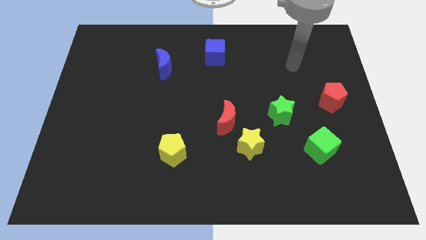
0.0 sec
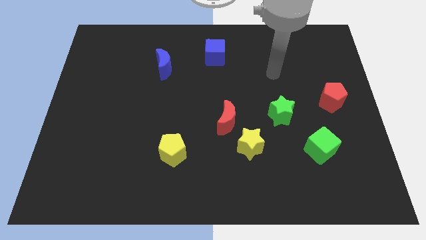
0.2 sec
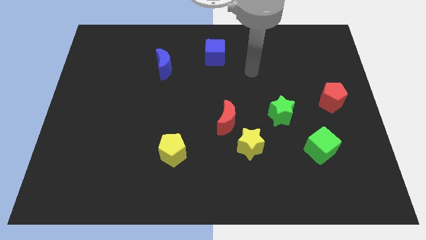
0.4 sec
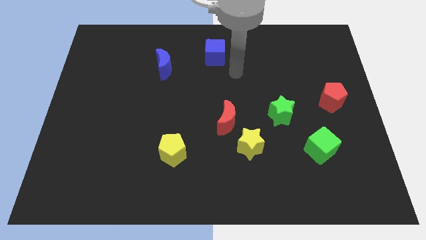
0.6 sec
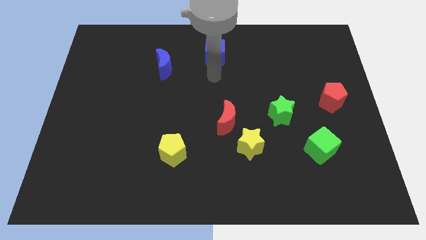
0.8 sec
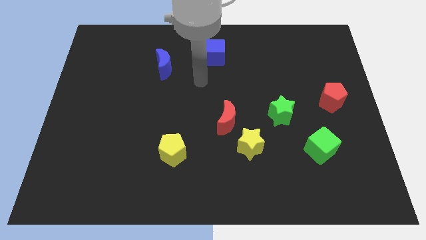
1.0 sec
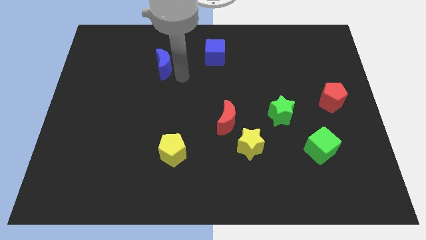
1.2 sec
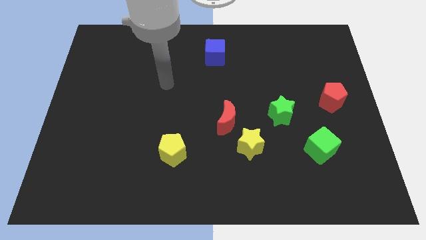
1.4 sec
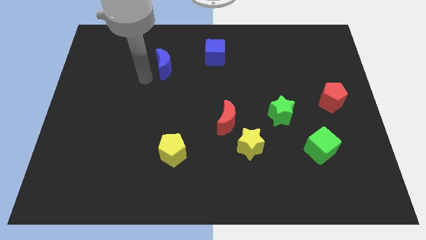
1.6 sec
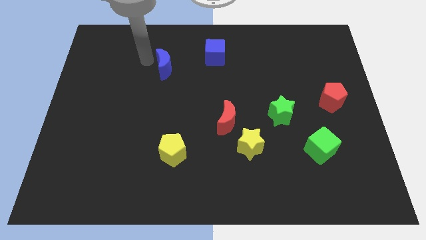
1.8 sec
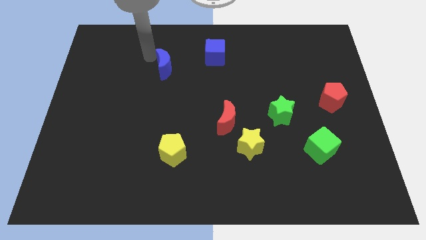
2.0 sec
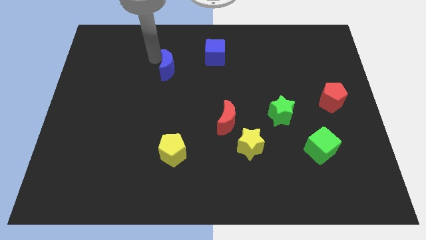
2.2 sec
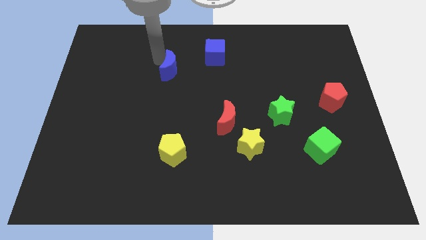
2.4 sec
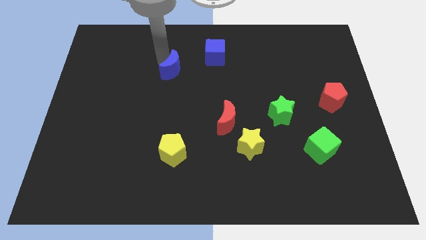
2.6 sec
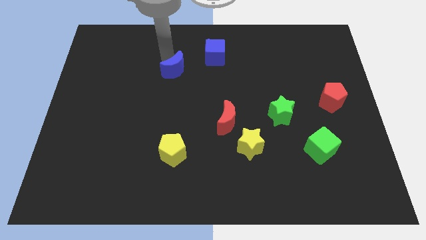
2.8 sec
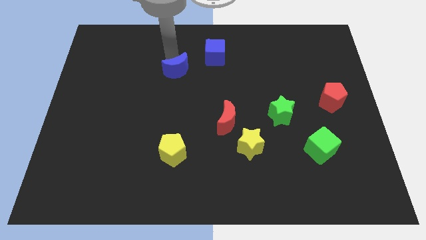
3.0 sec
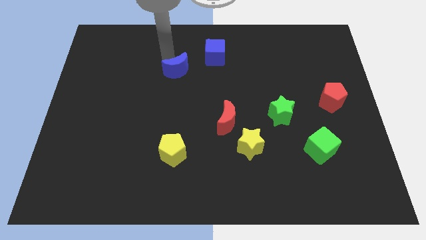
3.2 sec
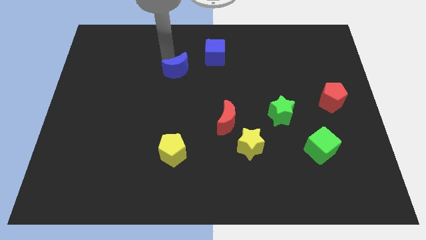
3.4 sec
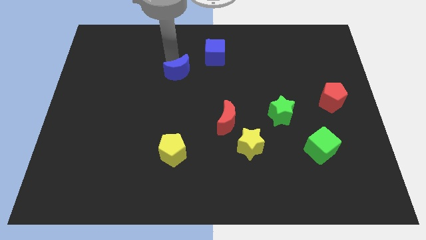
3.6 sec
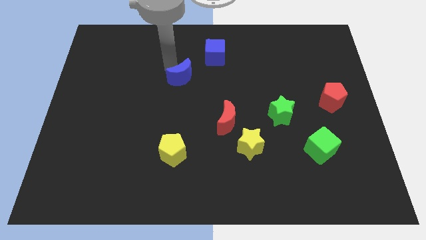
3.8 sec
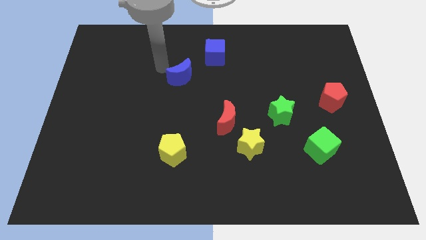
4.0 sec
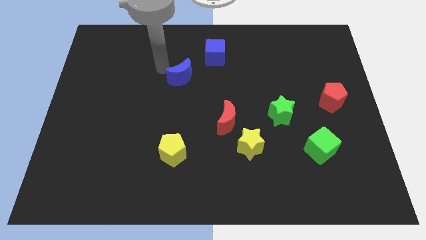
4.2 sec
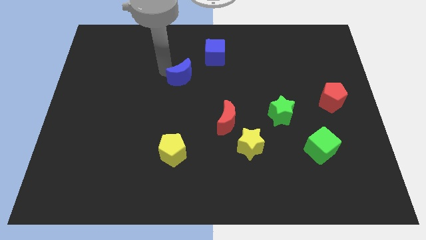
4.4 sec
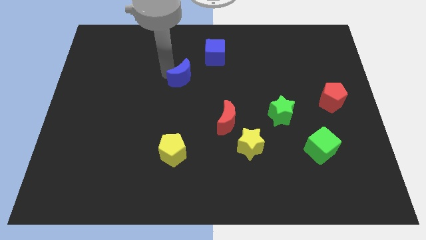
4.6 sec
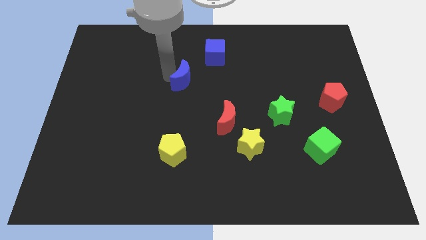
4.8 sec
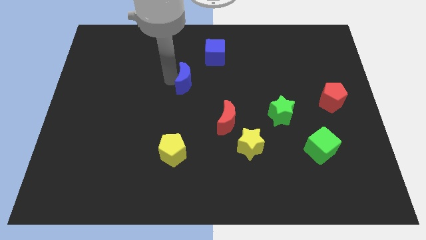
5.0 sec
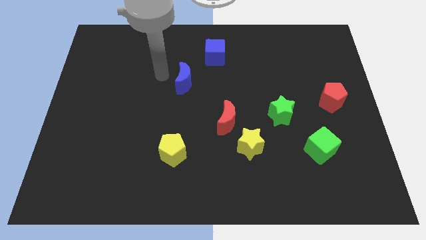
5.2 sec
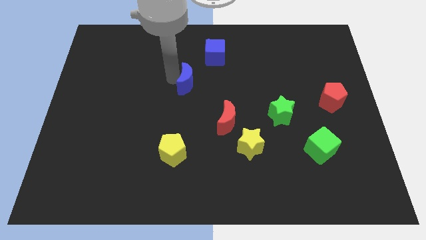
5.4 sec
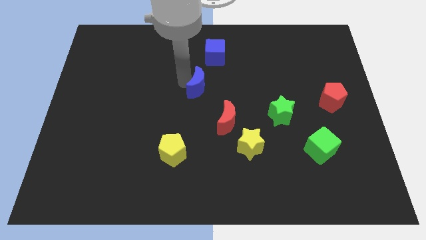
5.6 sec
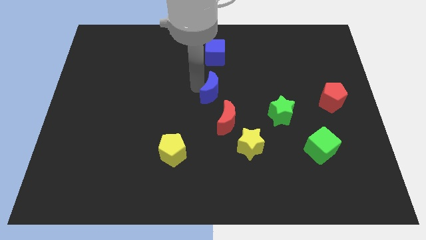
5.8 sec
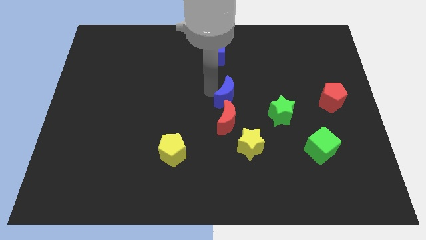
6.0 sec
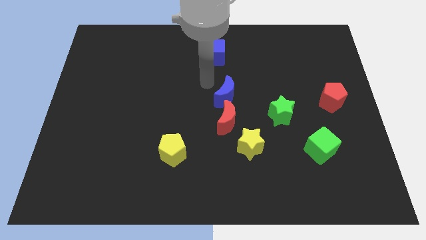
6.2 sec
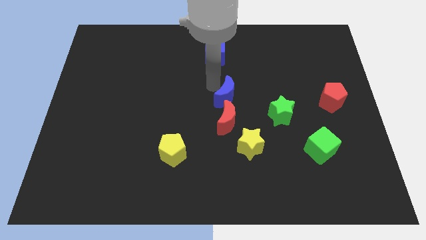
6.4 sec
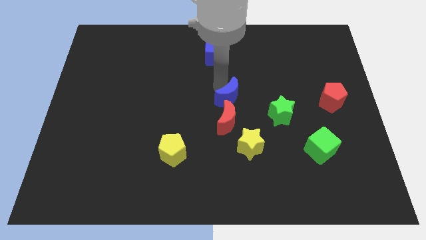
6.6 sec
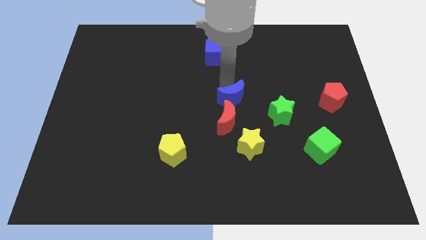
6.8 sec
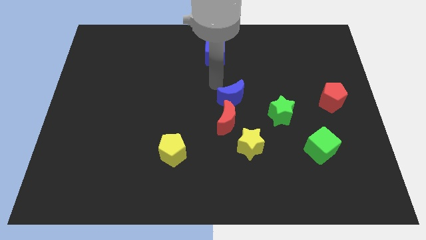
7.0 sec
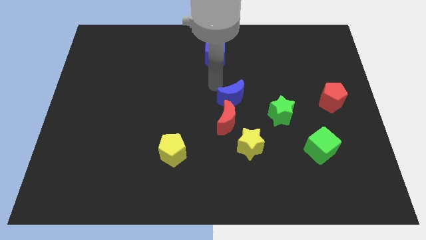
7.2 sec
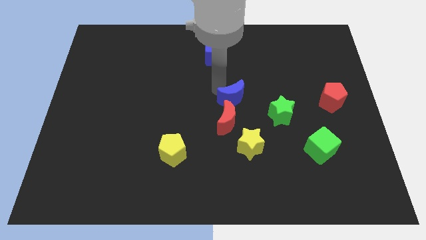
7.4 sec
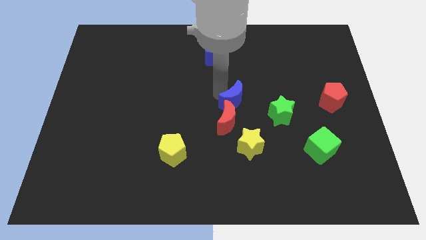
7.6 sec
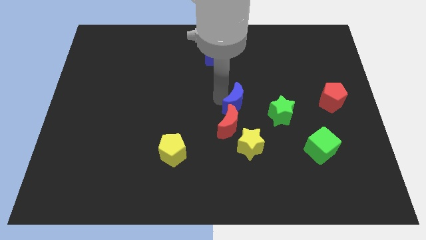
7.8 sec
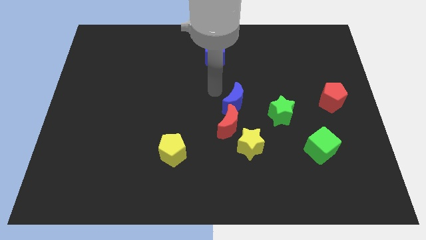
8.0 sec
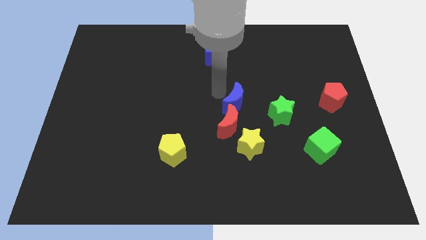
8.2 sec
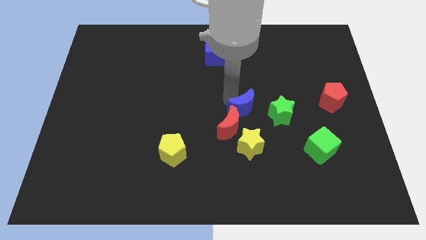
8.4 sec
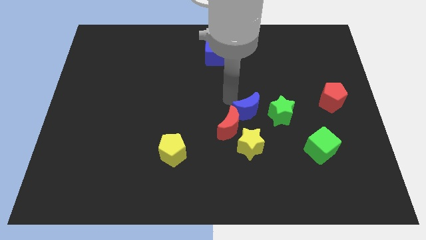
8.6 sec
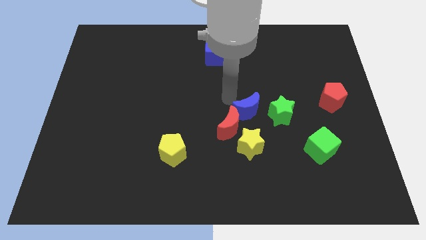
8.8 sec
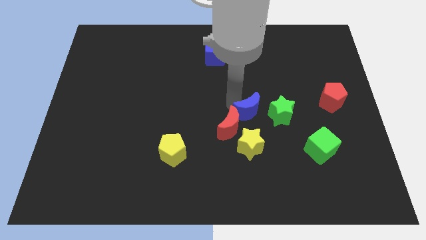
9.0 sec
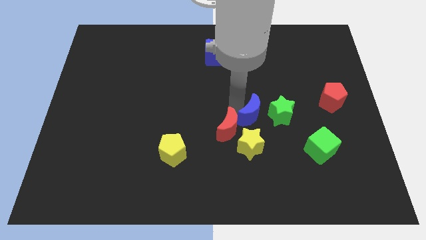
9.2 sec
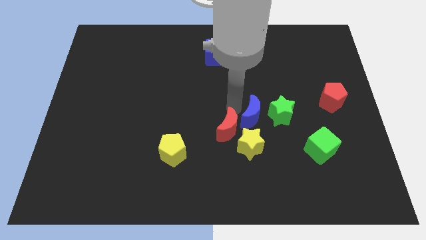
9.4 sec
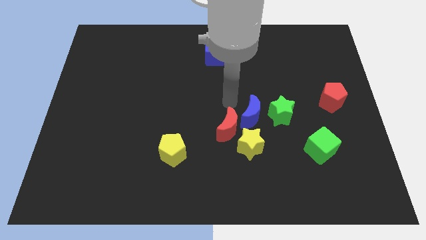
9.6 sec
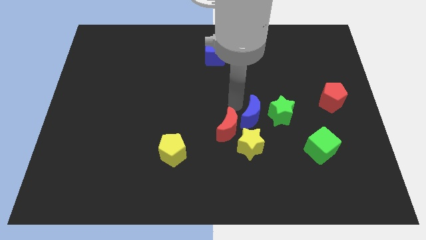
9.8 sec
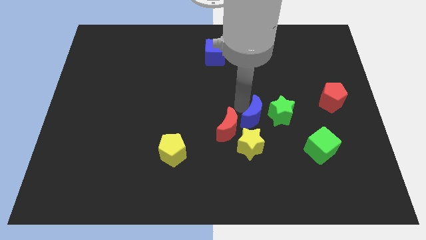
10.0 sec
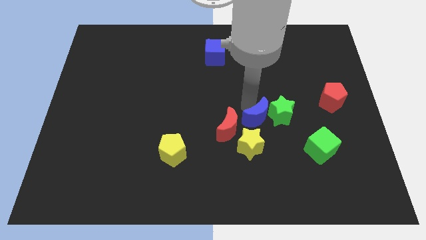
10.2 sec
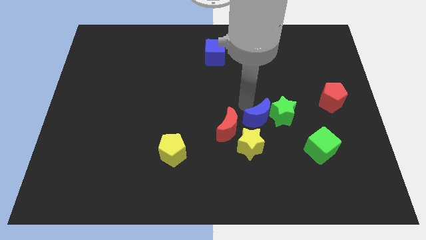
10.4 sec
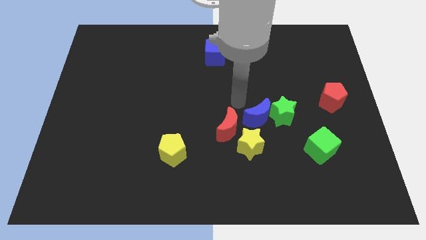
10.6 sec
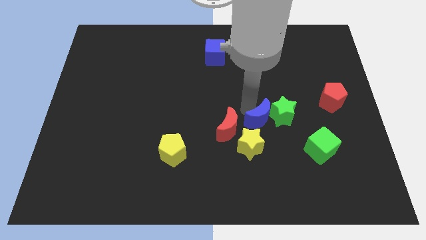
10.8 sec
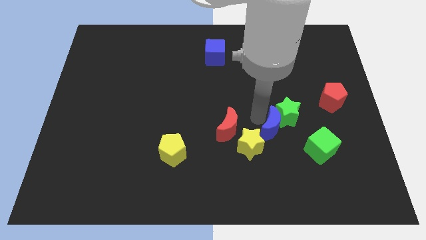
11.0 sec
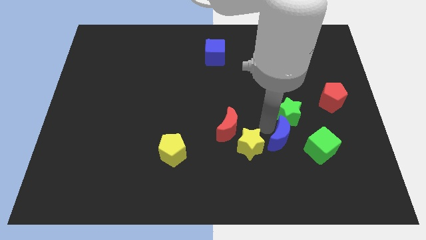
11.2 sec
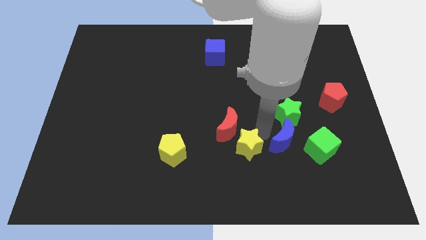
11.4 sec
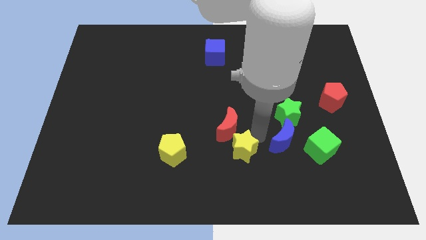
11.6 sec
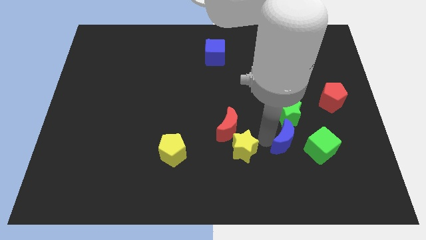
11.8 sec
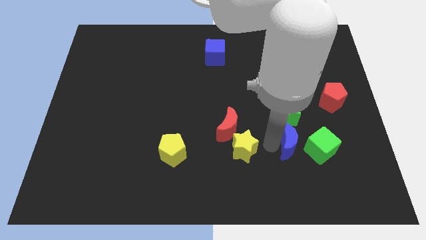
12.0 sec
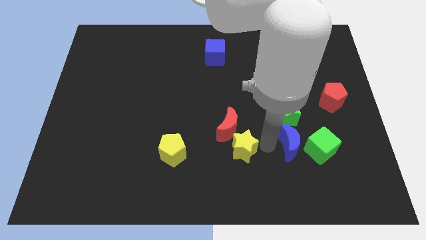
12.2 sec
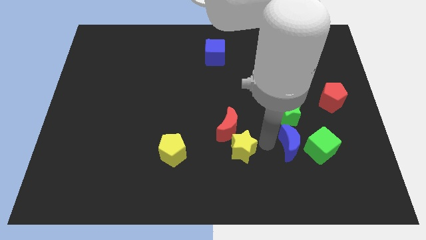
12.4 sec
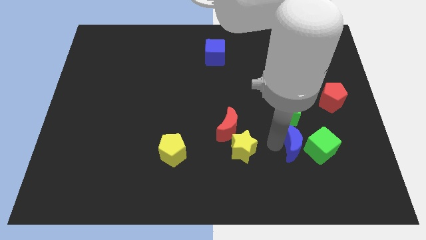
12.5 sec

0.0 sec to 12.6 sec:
push the blue moon to the green cube
